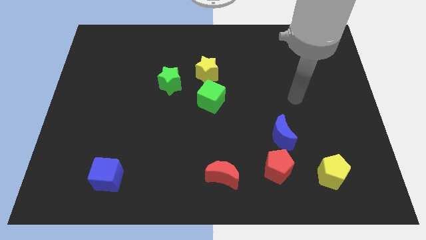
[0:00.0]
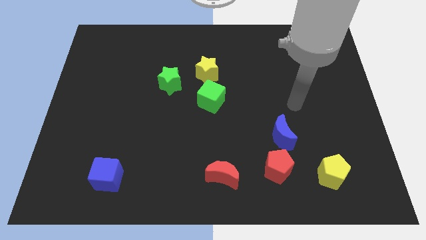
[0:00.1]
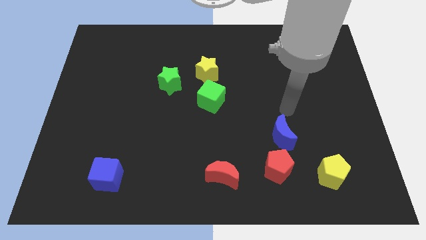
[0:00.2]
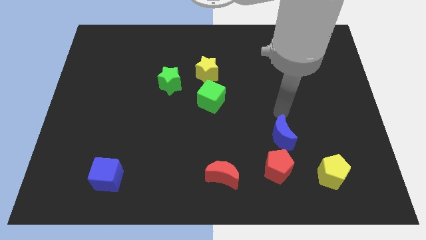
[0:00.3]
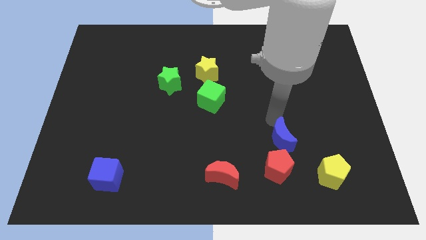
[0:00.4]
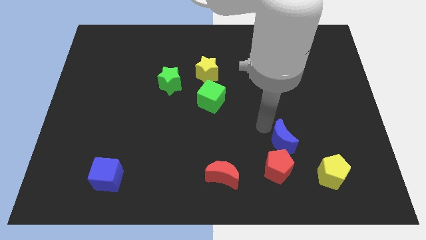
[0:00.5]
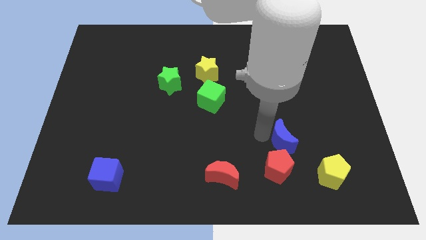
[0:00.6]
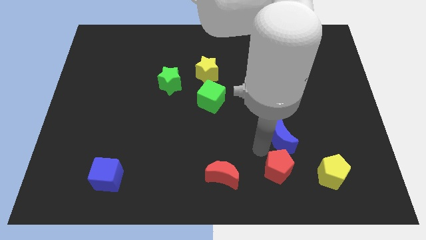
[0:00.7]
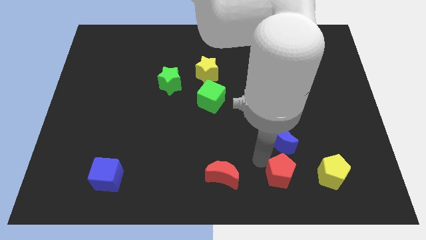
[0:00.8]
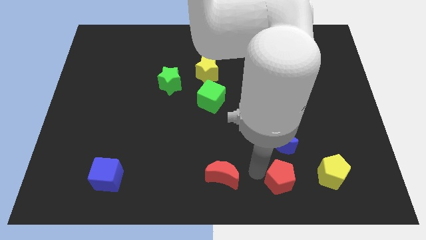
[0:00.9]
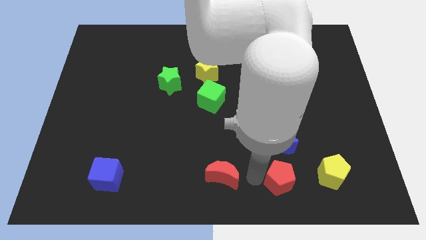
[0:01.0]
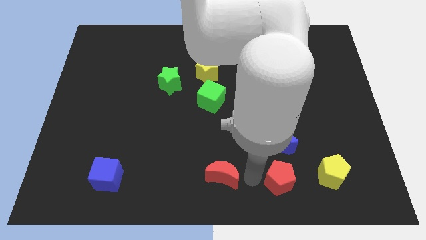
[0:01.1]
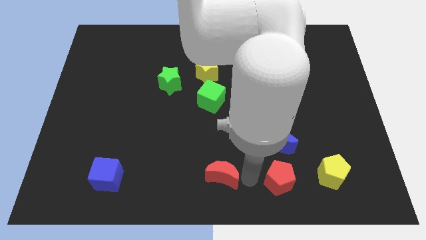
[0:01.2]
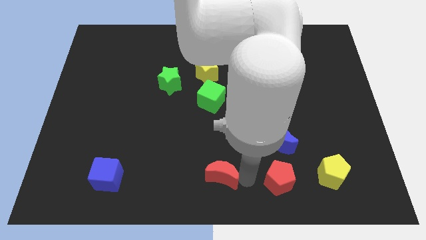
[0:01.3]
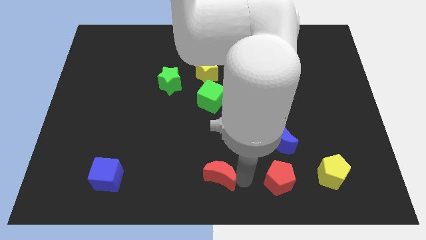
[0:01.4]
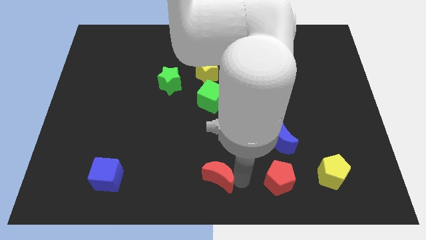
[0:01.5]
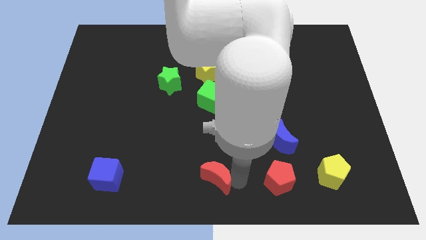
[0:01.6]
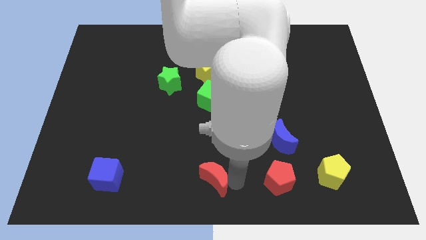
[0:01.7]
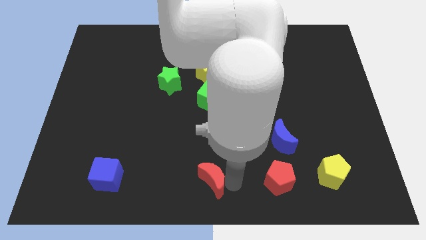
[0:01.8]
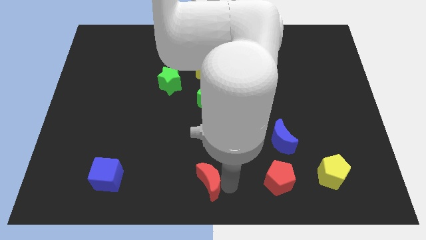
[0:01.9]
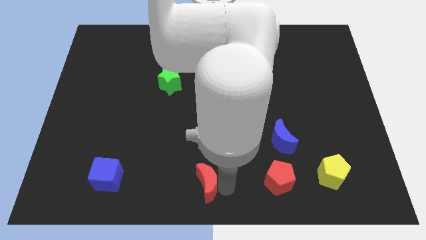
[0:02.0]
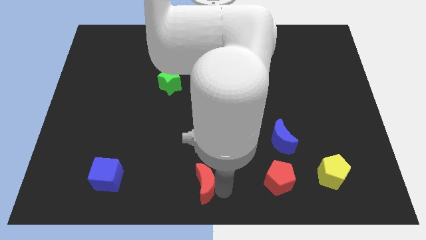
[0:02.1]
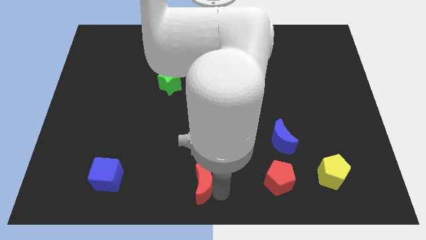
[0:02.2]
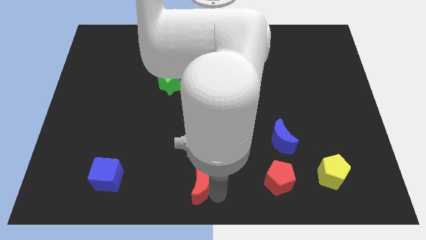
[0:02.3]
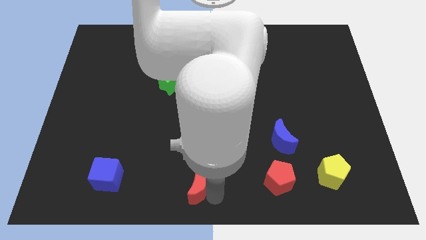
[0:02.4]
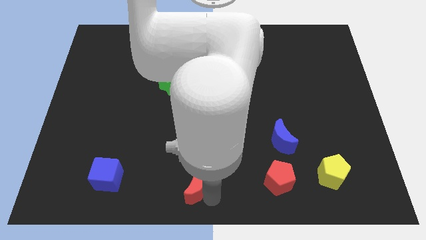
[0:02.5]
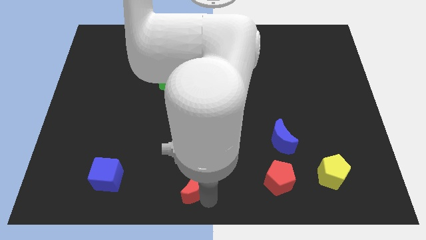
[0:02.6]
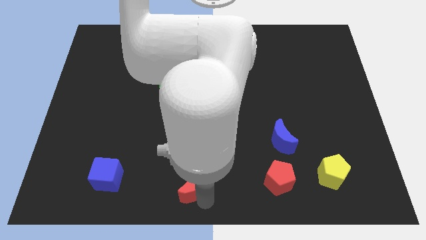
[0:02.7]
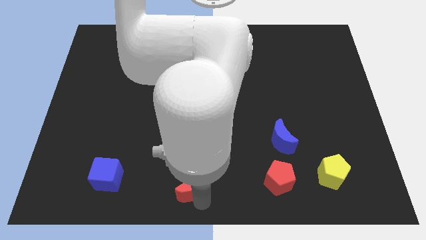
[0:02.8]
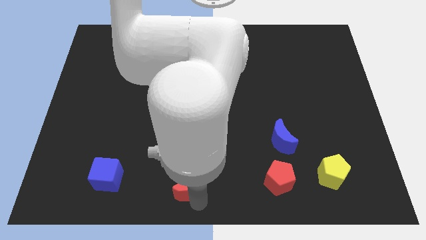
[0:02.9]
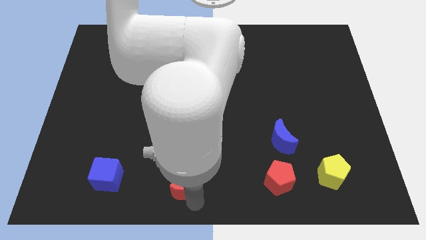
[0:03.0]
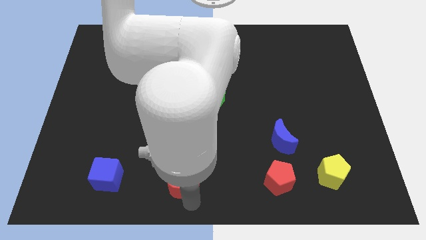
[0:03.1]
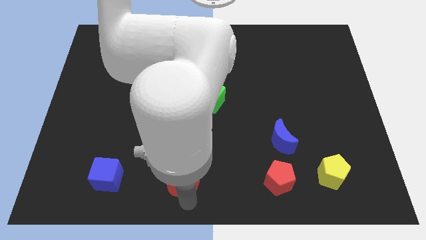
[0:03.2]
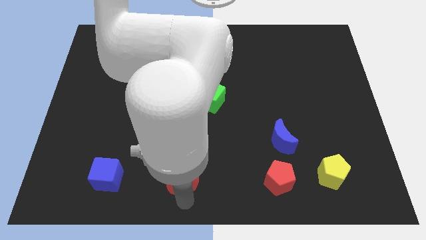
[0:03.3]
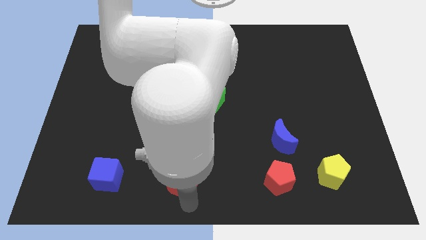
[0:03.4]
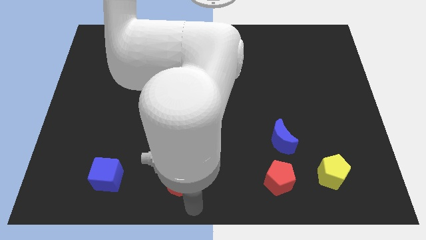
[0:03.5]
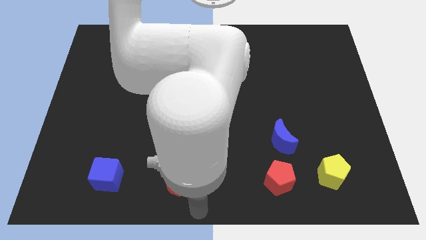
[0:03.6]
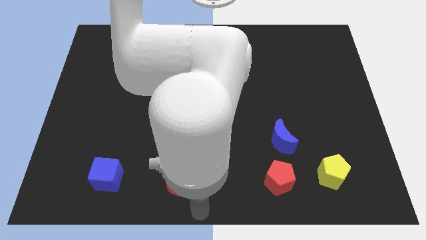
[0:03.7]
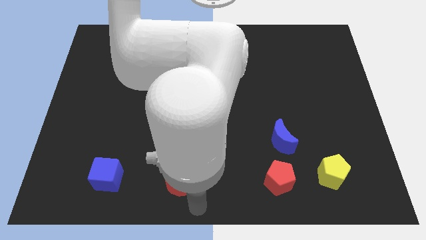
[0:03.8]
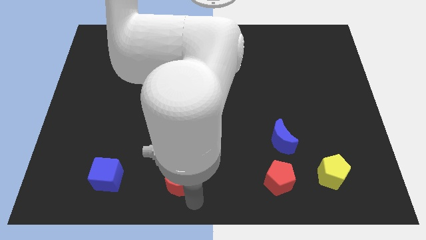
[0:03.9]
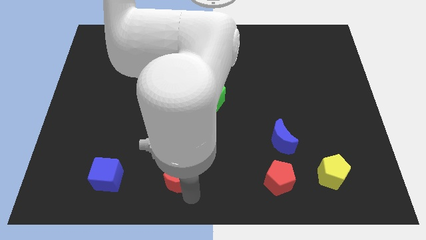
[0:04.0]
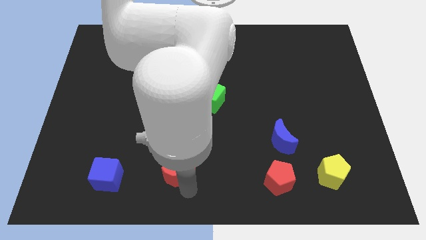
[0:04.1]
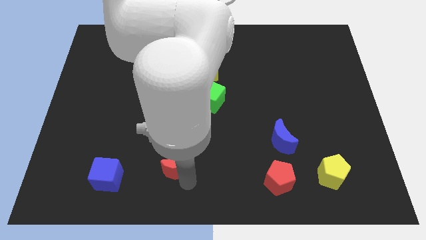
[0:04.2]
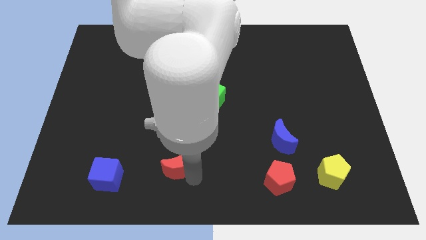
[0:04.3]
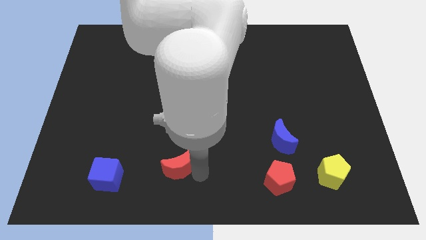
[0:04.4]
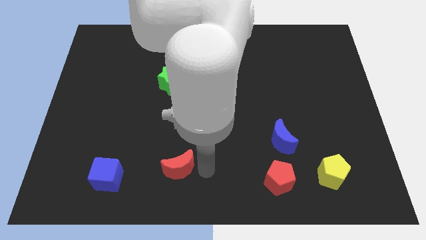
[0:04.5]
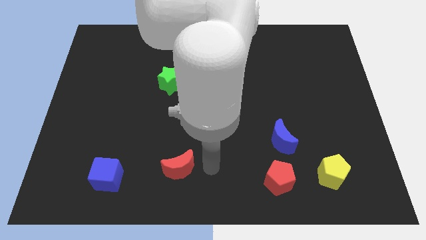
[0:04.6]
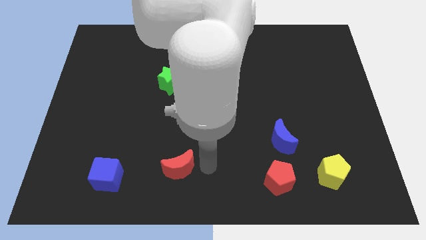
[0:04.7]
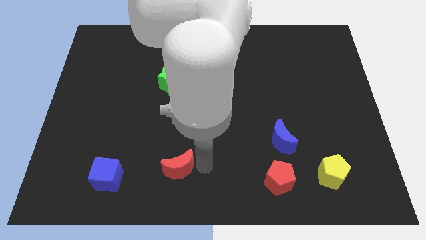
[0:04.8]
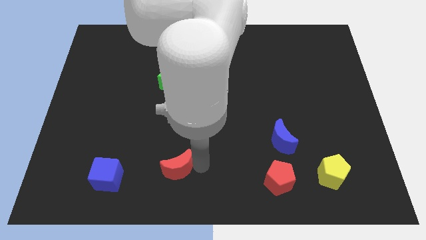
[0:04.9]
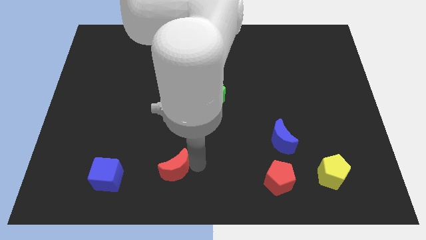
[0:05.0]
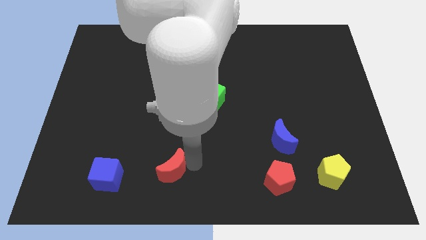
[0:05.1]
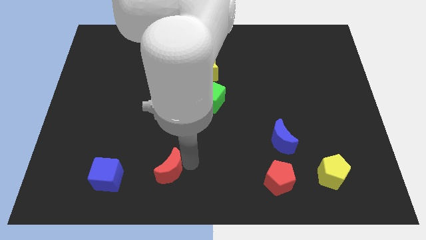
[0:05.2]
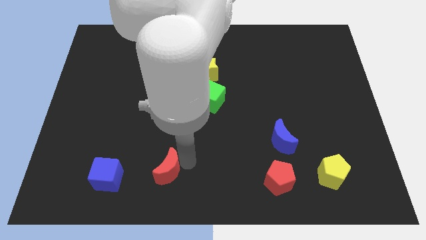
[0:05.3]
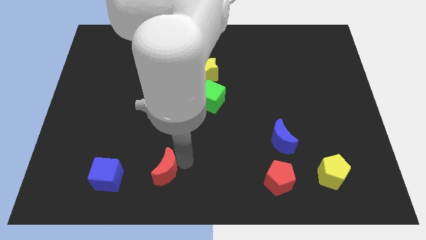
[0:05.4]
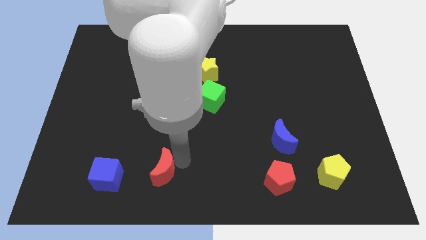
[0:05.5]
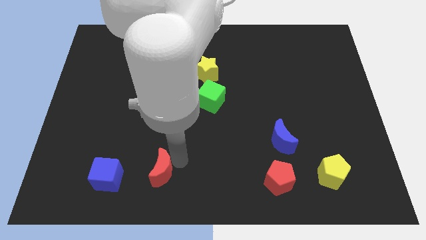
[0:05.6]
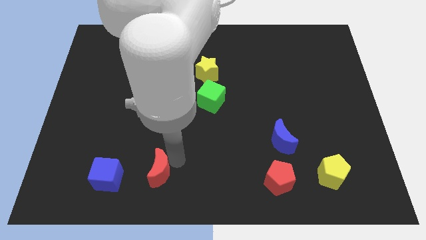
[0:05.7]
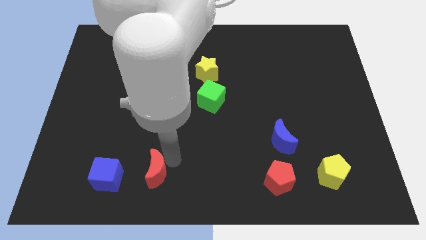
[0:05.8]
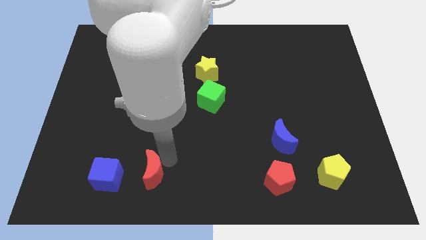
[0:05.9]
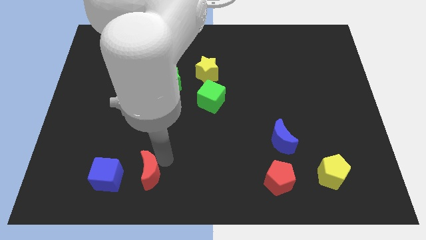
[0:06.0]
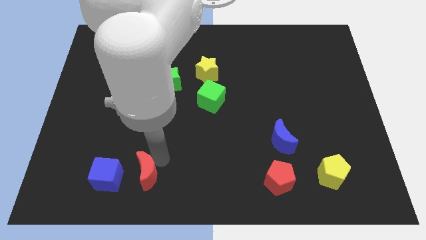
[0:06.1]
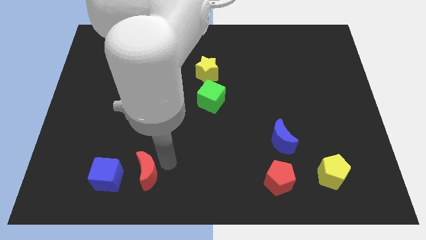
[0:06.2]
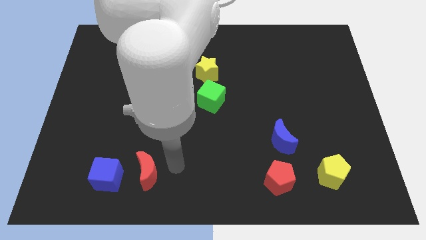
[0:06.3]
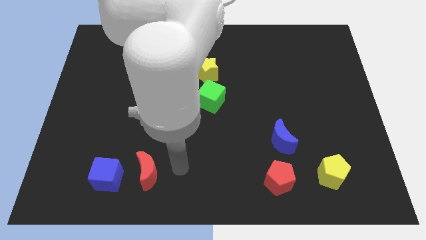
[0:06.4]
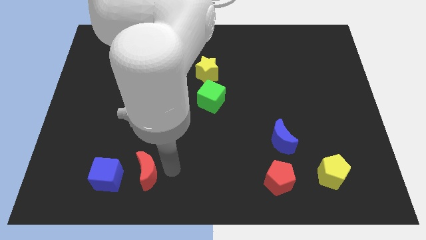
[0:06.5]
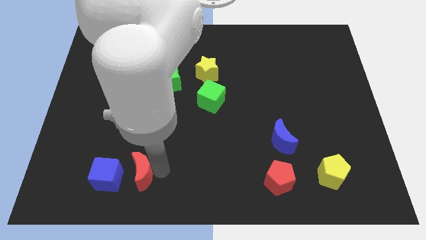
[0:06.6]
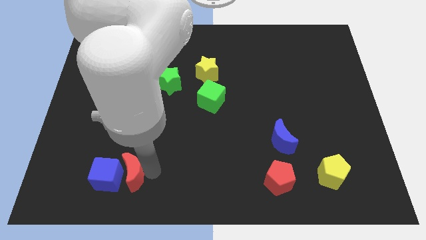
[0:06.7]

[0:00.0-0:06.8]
push the red moon close to the blue cube

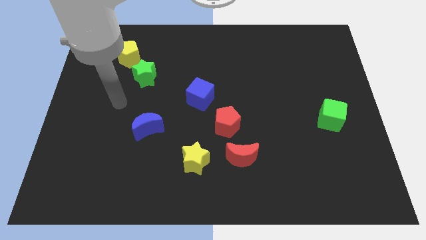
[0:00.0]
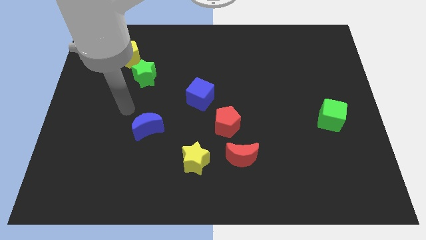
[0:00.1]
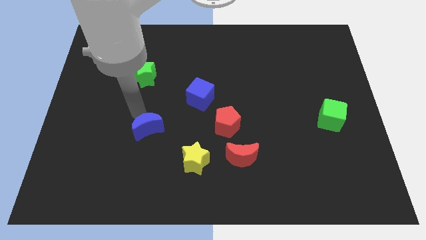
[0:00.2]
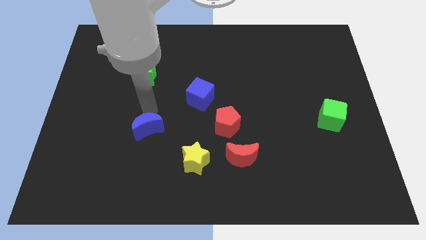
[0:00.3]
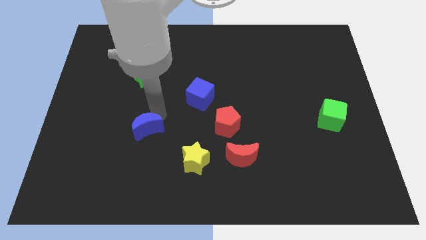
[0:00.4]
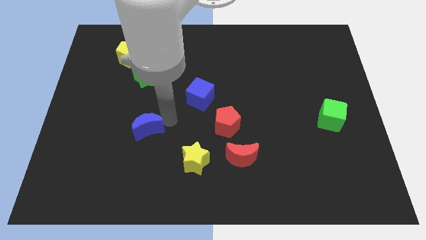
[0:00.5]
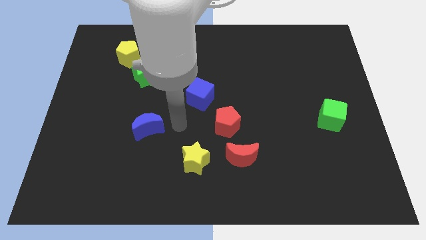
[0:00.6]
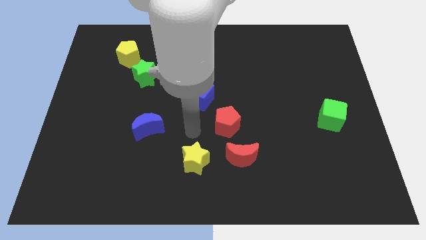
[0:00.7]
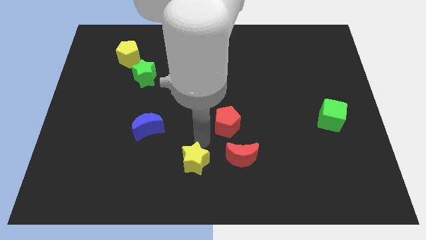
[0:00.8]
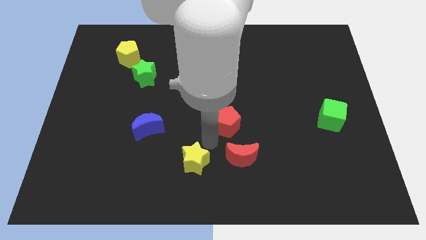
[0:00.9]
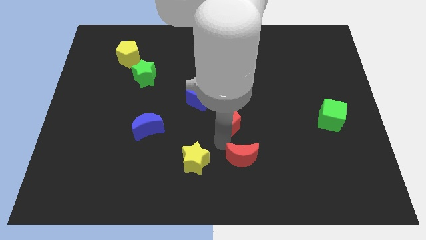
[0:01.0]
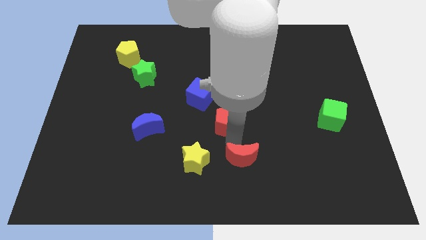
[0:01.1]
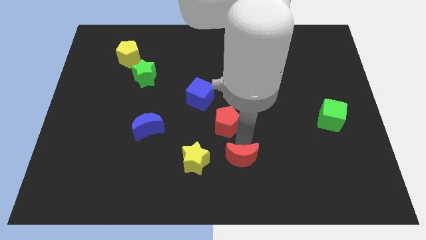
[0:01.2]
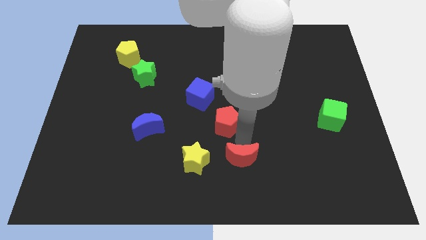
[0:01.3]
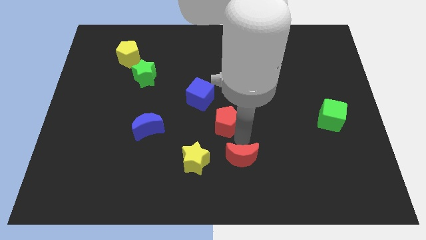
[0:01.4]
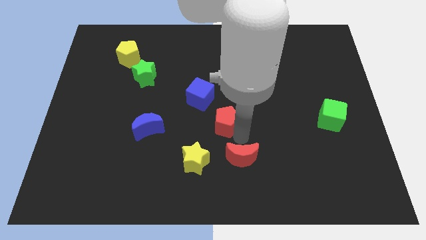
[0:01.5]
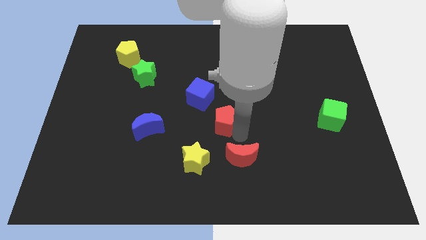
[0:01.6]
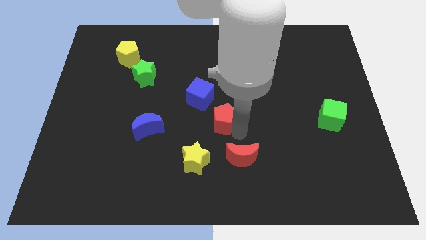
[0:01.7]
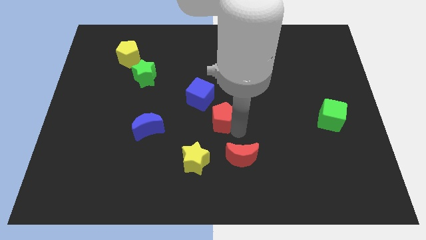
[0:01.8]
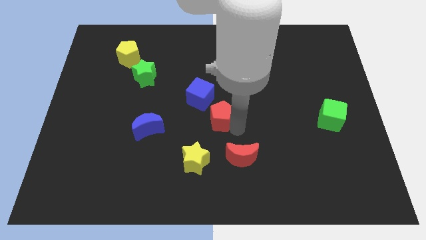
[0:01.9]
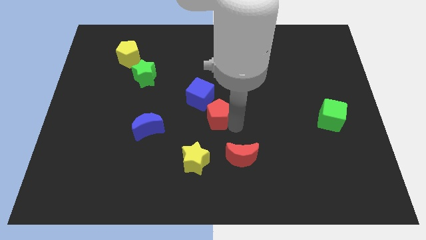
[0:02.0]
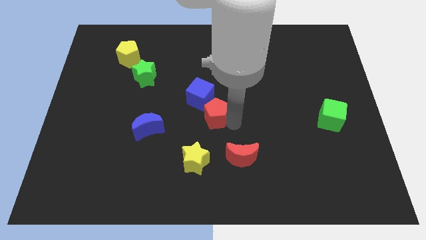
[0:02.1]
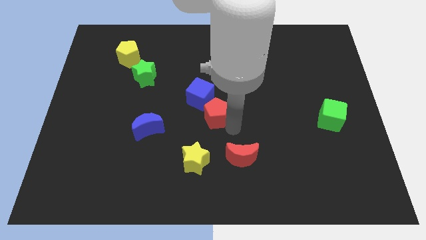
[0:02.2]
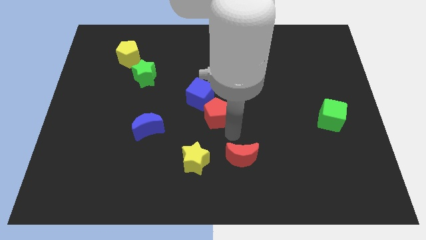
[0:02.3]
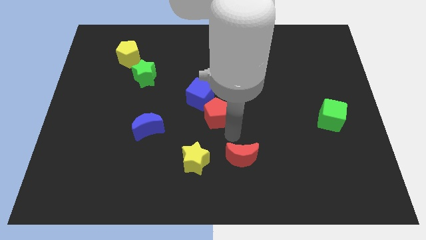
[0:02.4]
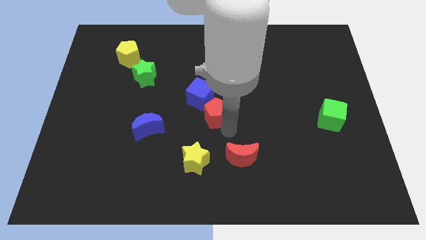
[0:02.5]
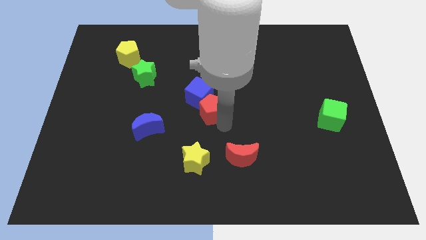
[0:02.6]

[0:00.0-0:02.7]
put the red pentagon towards the blue cube
